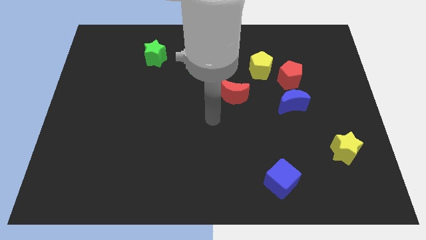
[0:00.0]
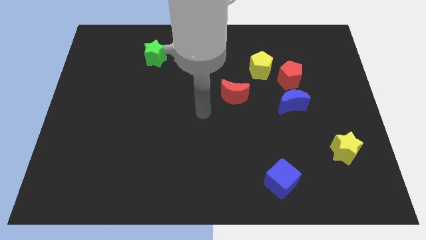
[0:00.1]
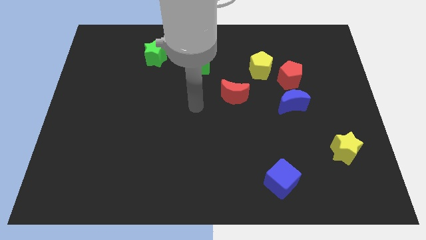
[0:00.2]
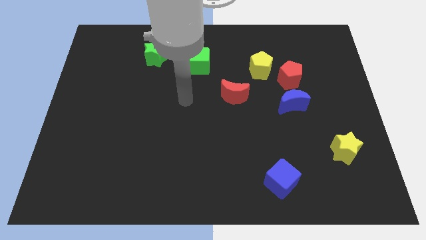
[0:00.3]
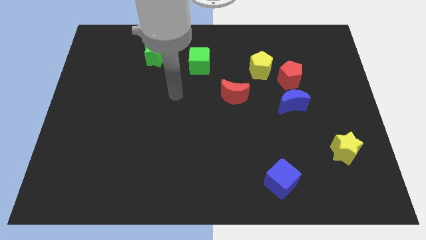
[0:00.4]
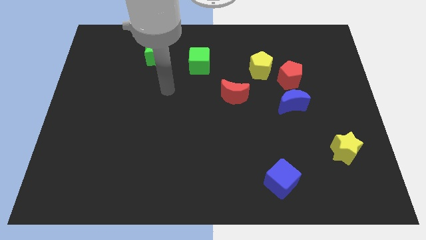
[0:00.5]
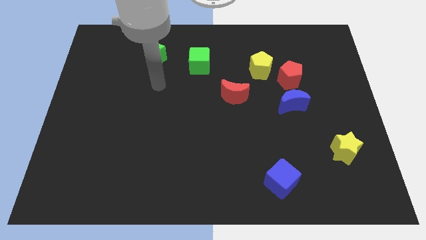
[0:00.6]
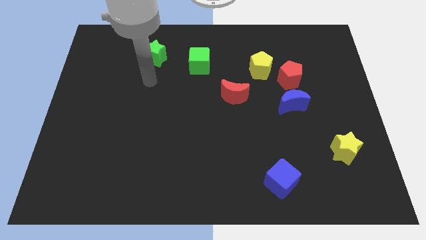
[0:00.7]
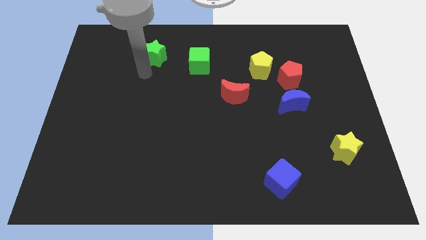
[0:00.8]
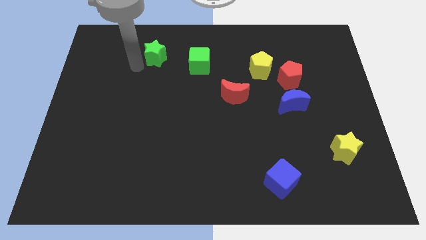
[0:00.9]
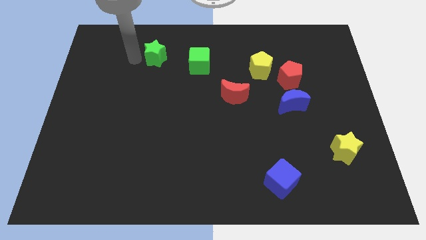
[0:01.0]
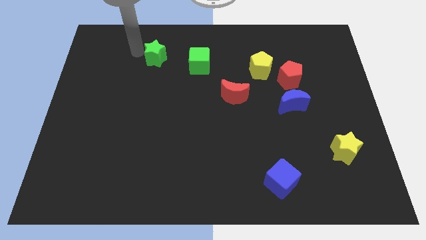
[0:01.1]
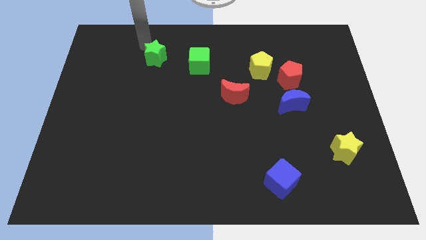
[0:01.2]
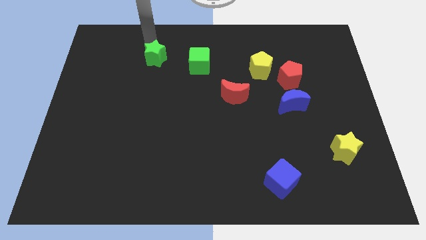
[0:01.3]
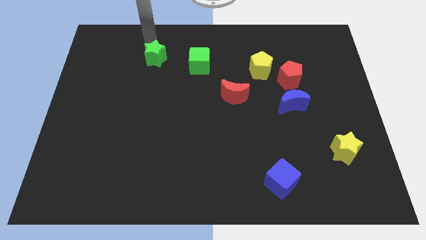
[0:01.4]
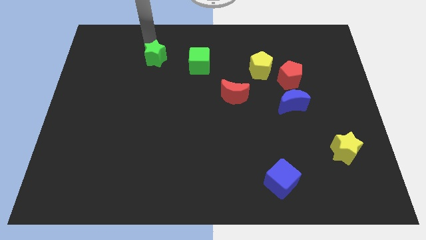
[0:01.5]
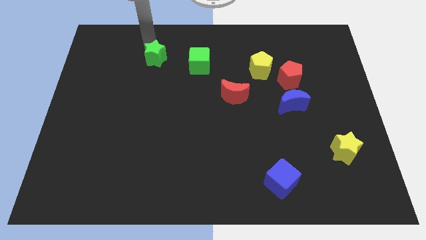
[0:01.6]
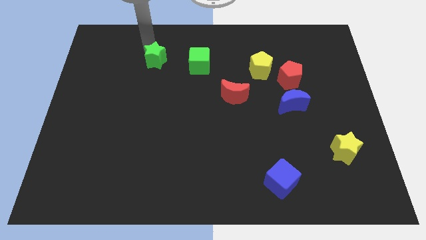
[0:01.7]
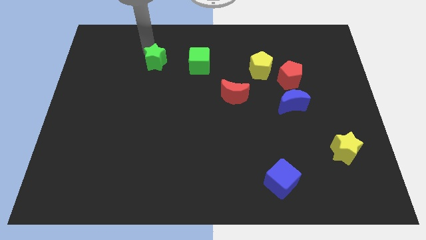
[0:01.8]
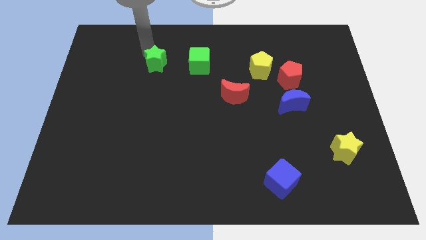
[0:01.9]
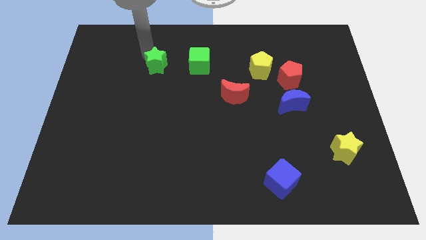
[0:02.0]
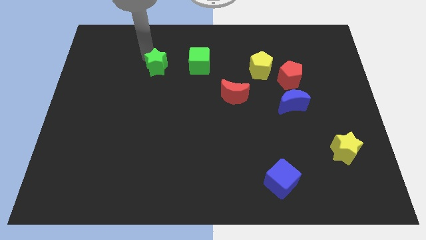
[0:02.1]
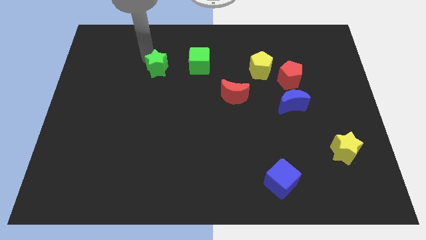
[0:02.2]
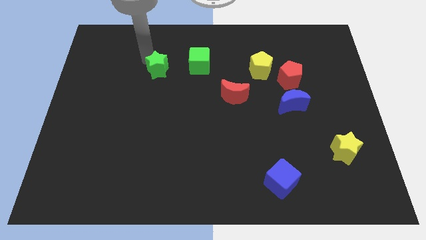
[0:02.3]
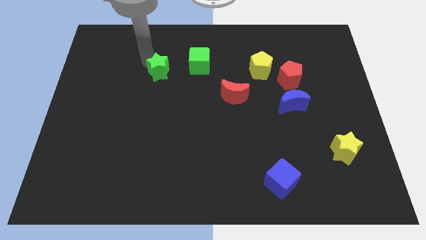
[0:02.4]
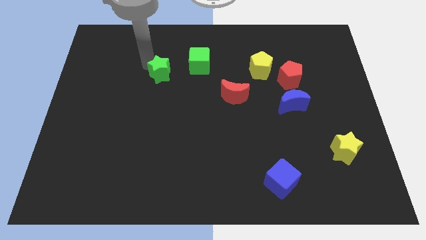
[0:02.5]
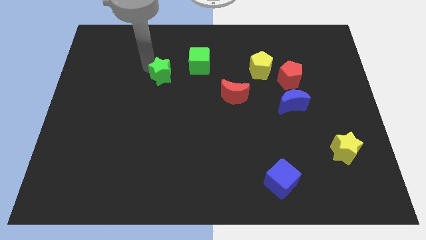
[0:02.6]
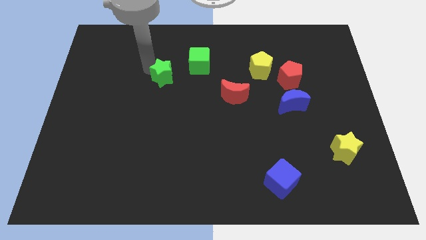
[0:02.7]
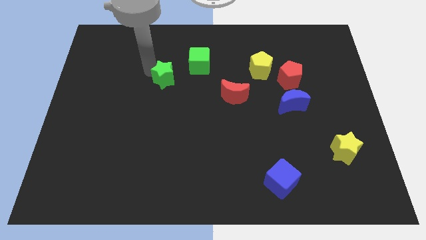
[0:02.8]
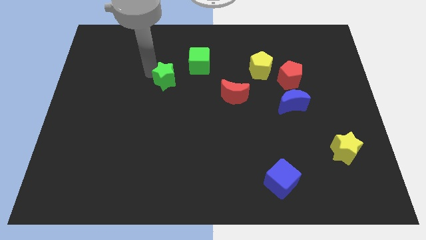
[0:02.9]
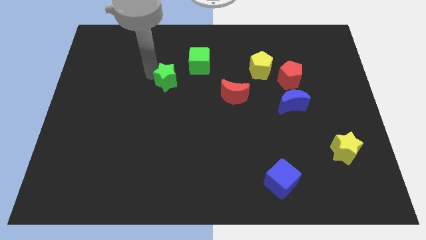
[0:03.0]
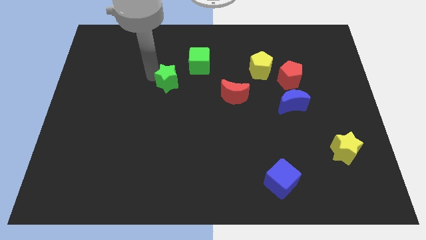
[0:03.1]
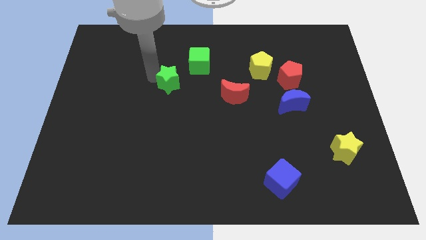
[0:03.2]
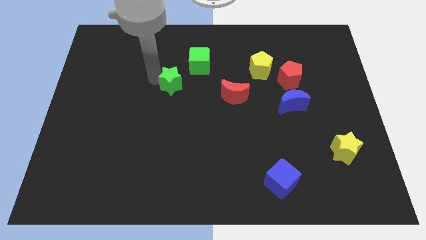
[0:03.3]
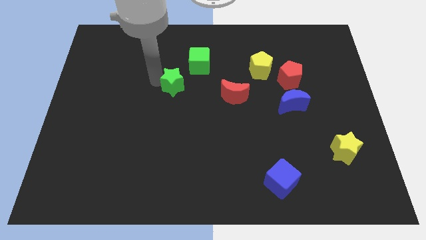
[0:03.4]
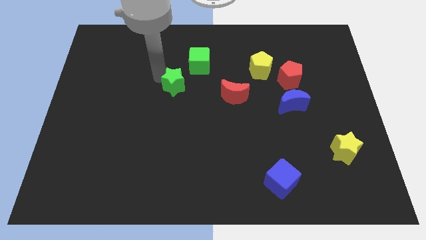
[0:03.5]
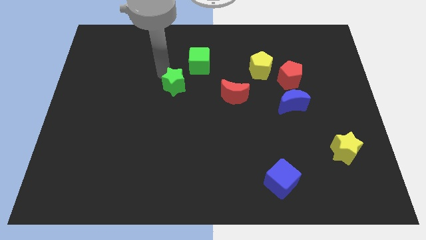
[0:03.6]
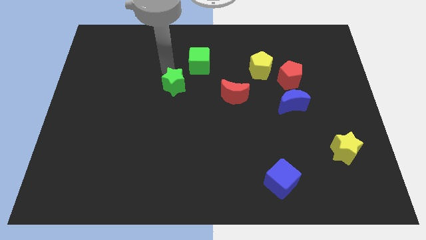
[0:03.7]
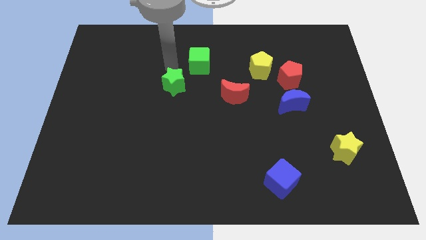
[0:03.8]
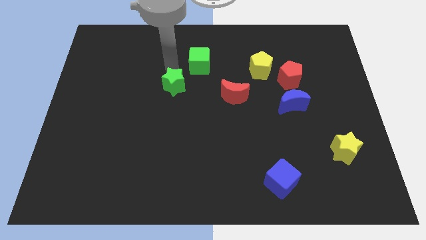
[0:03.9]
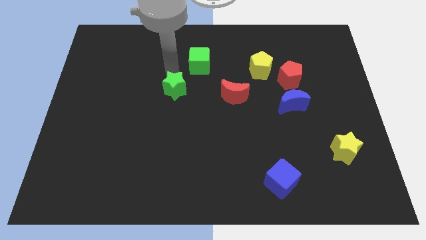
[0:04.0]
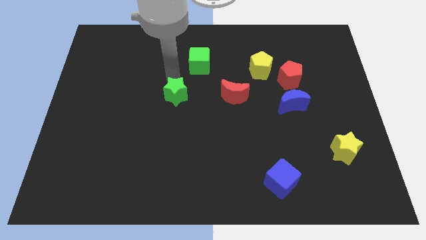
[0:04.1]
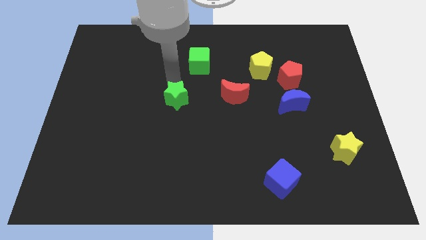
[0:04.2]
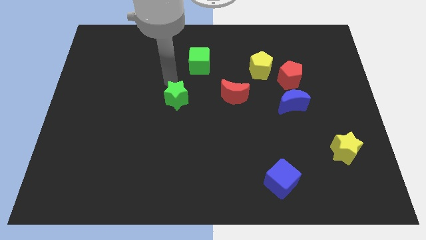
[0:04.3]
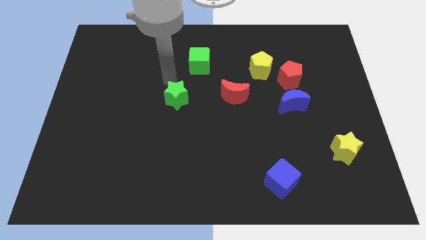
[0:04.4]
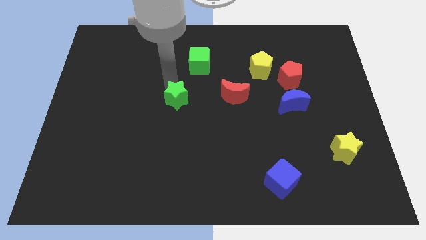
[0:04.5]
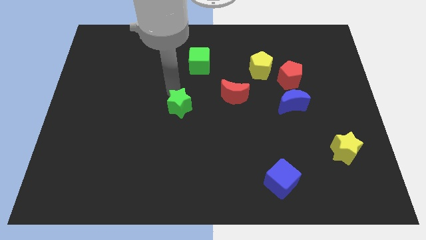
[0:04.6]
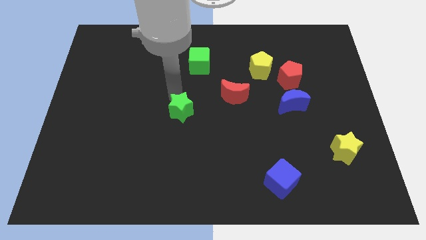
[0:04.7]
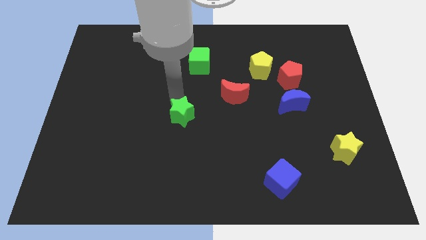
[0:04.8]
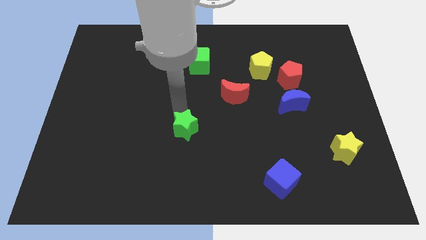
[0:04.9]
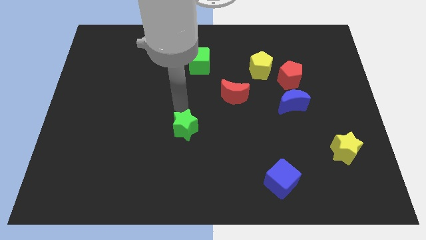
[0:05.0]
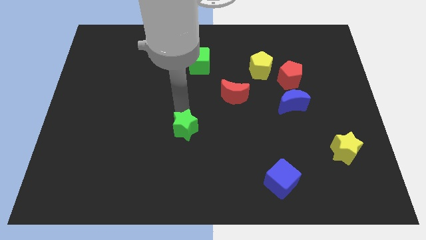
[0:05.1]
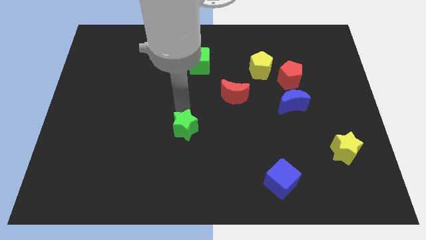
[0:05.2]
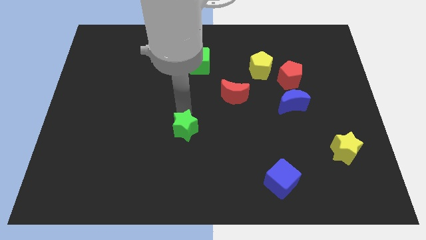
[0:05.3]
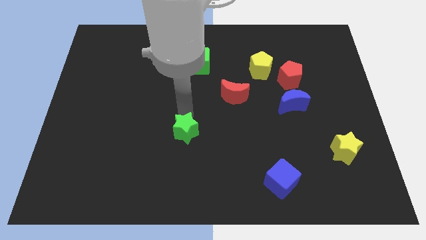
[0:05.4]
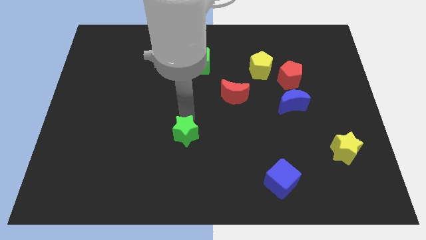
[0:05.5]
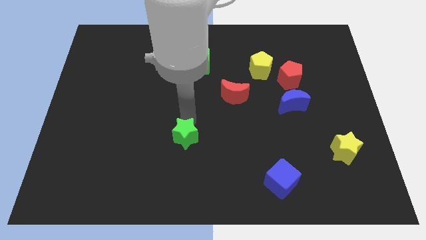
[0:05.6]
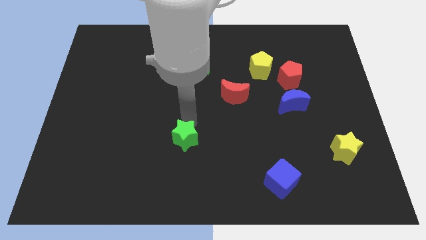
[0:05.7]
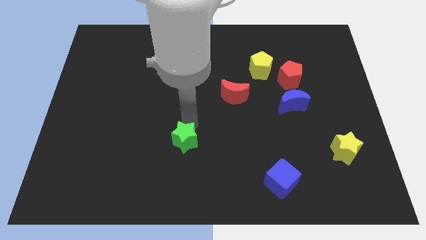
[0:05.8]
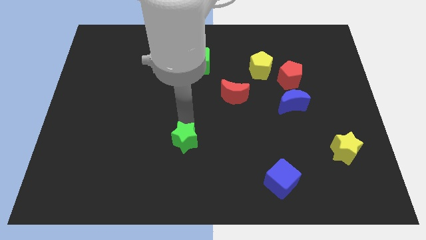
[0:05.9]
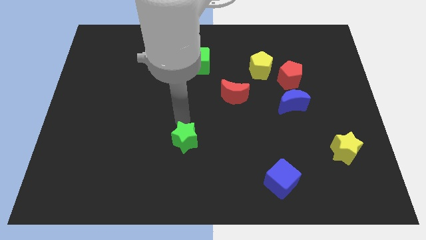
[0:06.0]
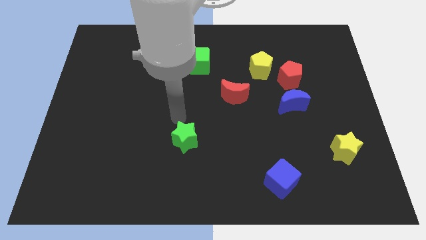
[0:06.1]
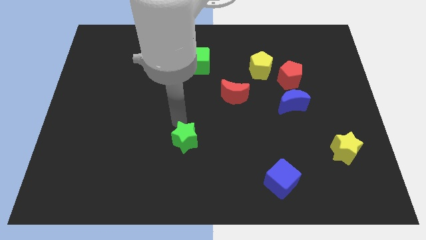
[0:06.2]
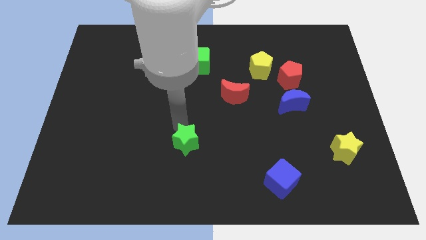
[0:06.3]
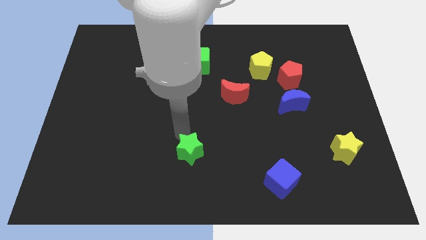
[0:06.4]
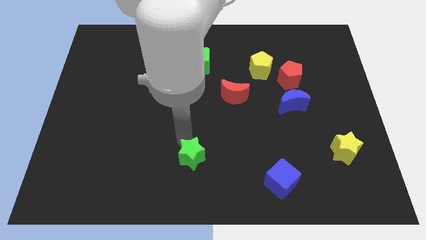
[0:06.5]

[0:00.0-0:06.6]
push the green star to the bottom
